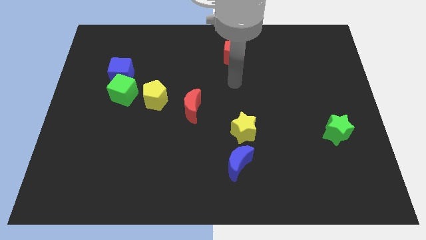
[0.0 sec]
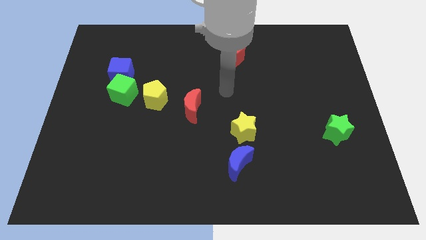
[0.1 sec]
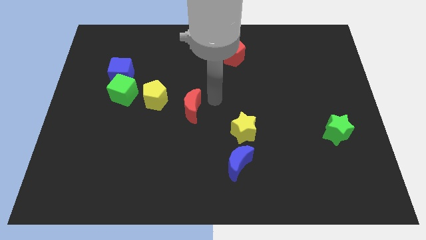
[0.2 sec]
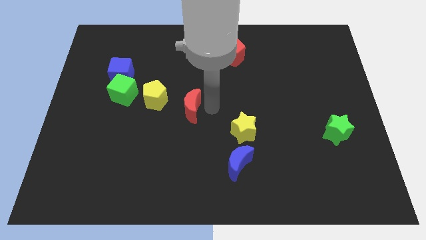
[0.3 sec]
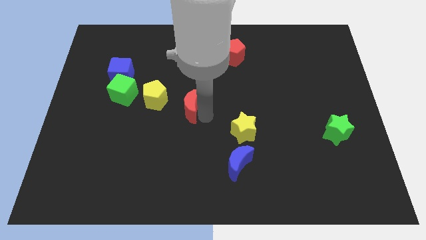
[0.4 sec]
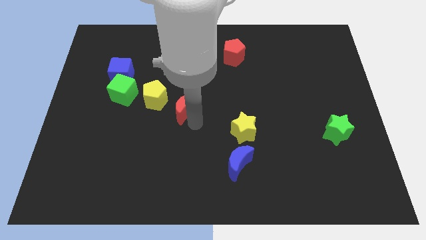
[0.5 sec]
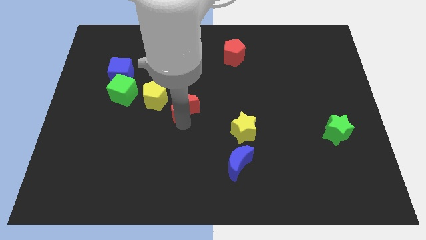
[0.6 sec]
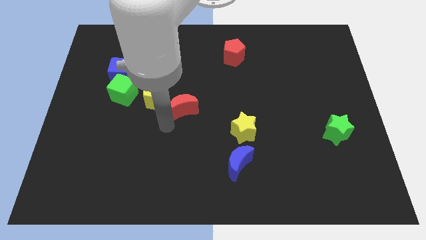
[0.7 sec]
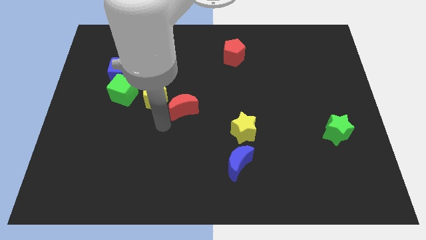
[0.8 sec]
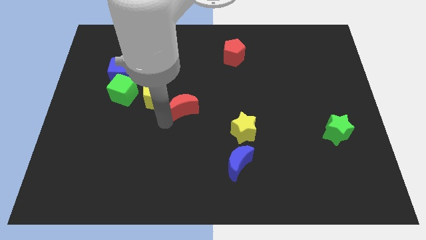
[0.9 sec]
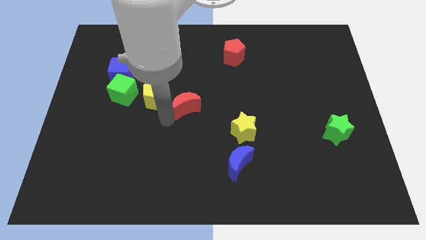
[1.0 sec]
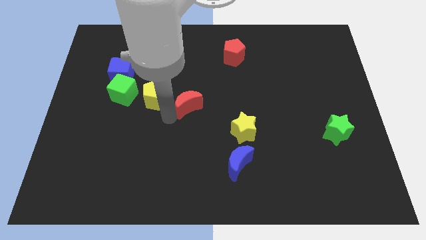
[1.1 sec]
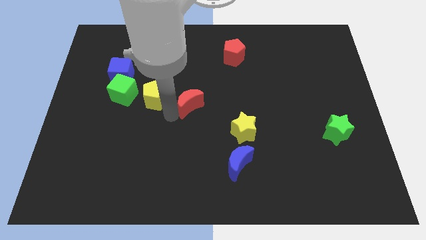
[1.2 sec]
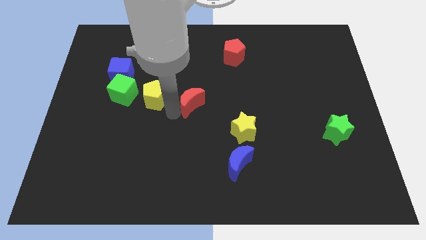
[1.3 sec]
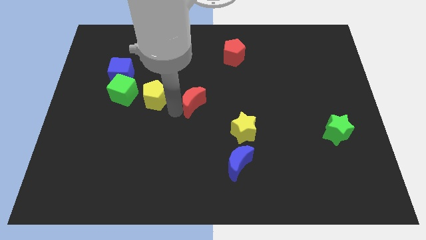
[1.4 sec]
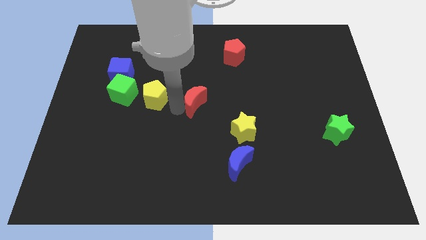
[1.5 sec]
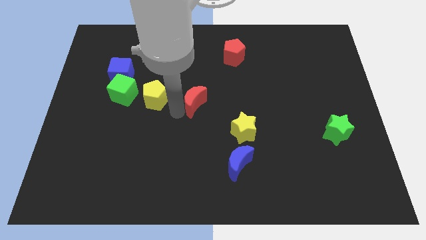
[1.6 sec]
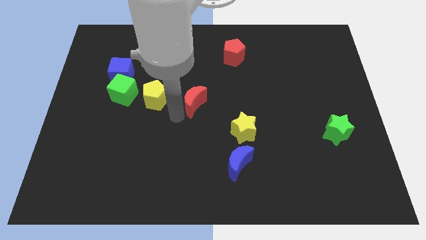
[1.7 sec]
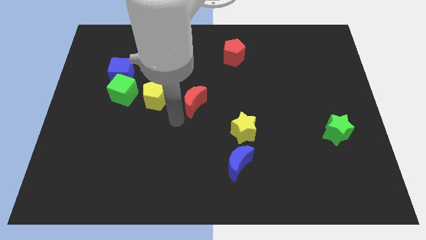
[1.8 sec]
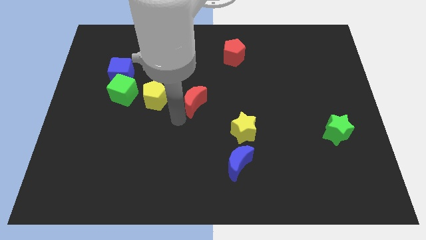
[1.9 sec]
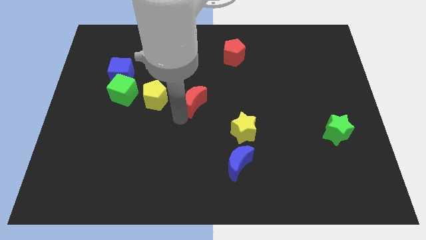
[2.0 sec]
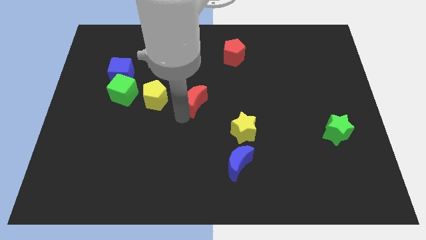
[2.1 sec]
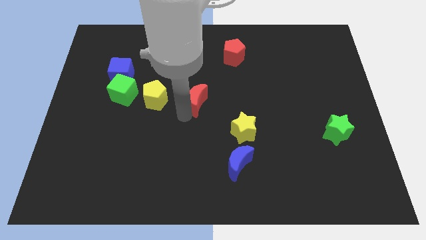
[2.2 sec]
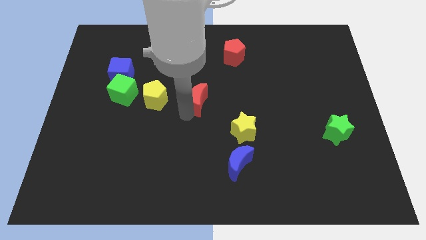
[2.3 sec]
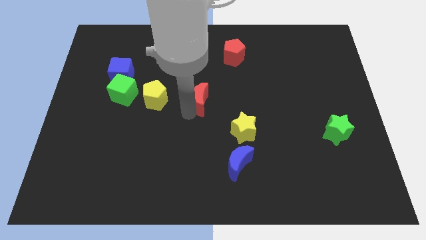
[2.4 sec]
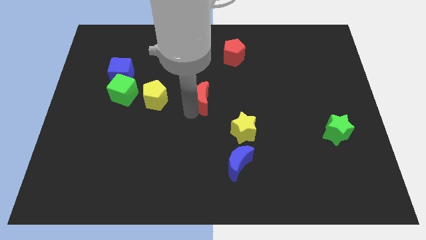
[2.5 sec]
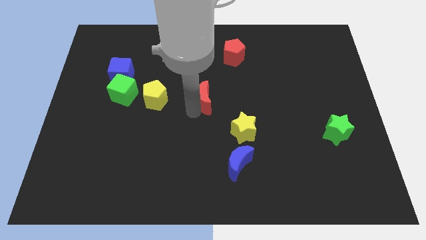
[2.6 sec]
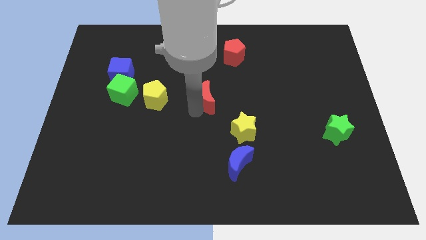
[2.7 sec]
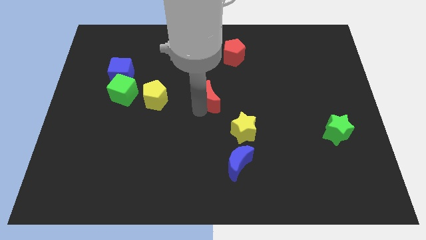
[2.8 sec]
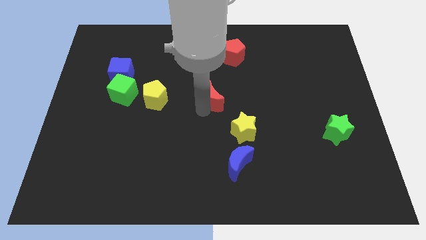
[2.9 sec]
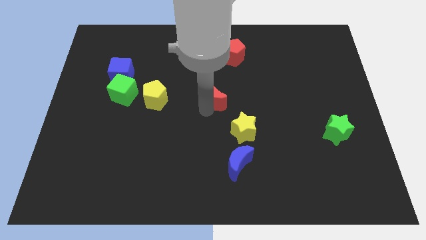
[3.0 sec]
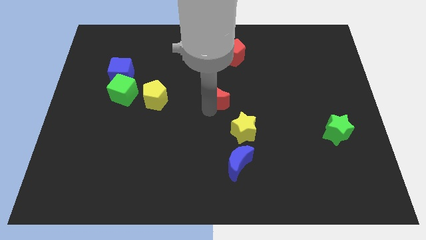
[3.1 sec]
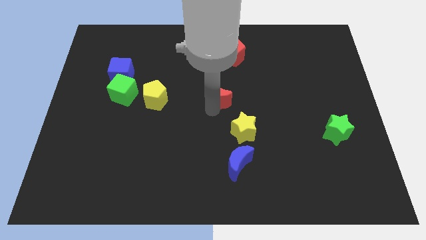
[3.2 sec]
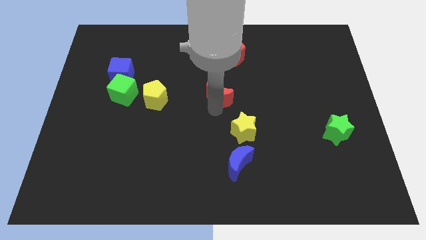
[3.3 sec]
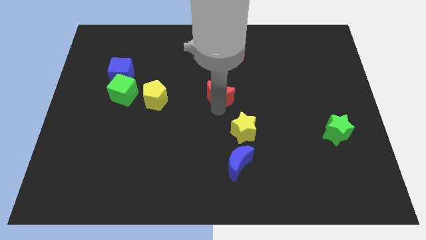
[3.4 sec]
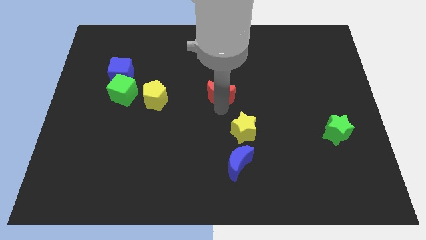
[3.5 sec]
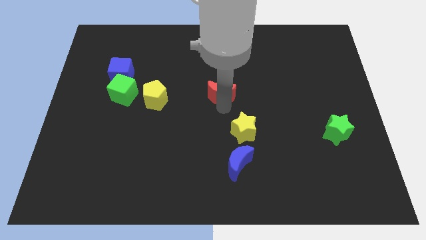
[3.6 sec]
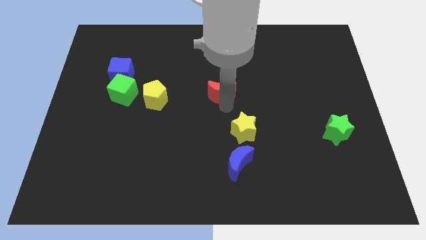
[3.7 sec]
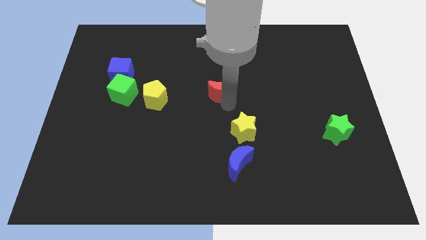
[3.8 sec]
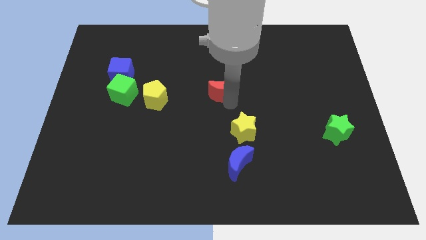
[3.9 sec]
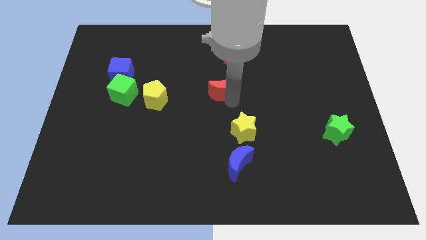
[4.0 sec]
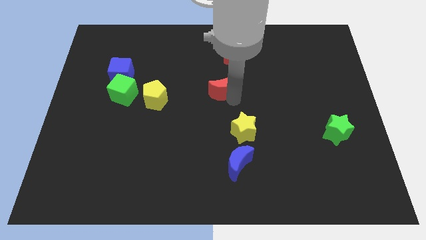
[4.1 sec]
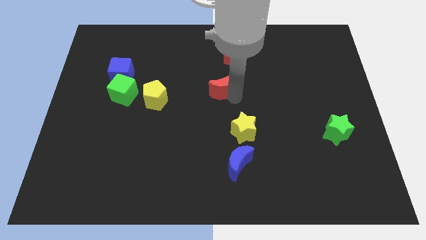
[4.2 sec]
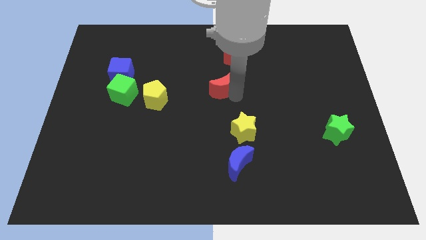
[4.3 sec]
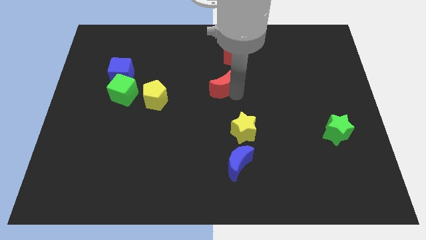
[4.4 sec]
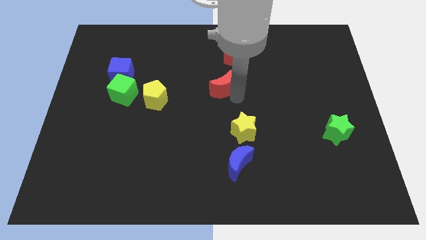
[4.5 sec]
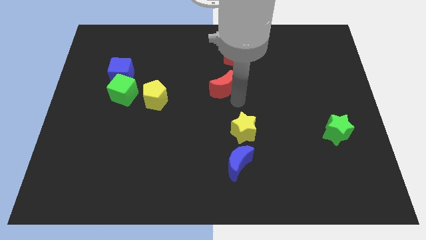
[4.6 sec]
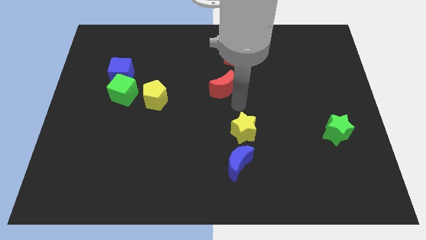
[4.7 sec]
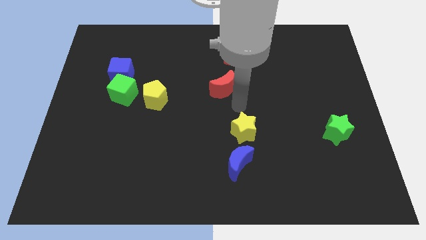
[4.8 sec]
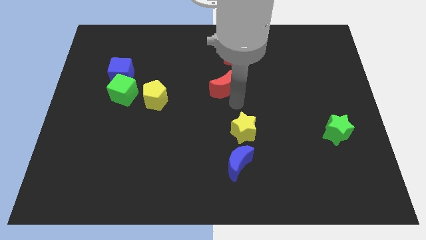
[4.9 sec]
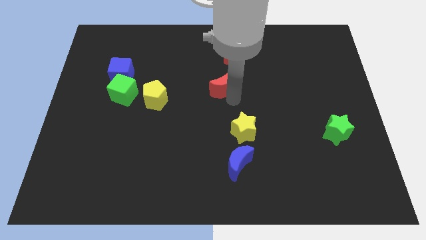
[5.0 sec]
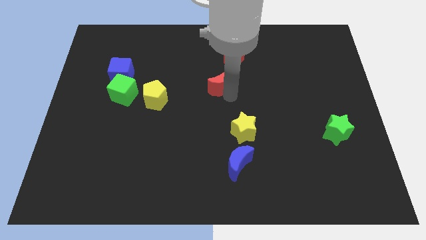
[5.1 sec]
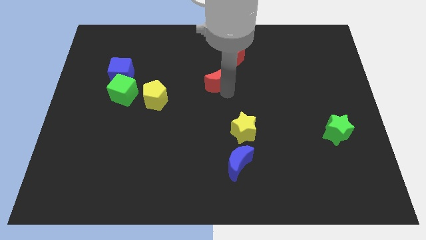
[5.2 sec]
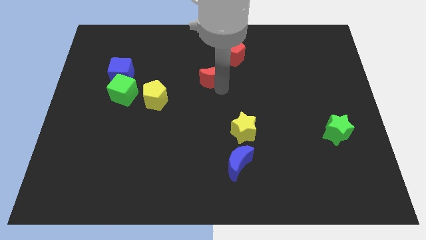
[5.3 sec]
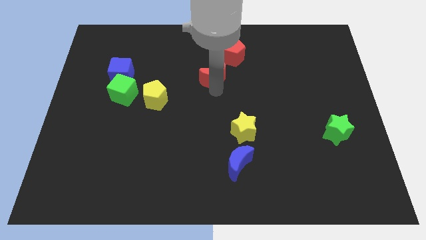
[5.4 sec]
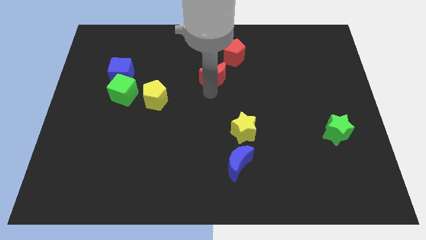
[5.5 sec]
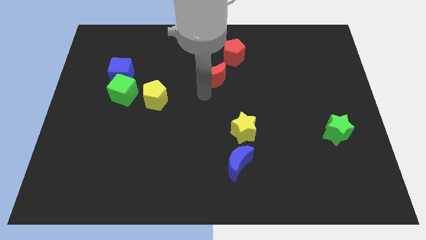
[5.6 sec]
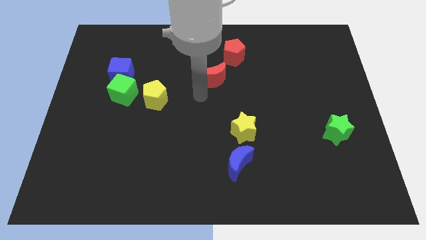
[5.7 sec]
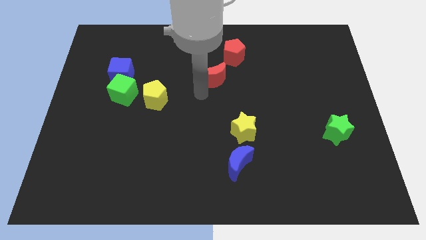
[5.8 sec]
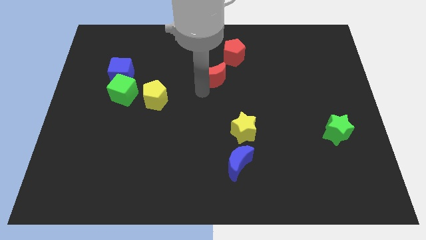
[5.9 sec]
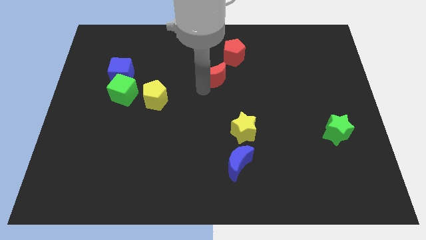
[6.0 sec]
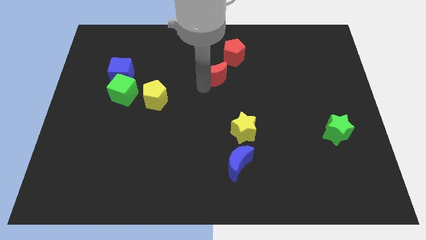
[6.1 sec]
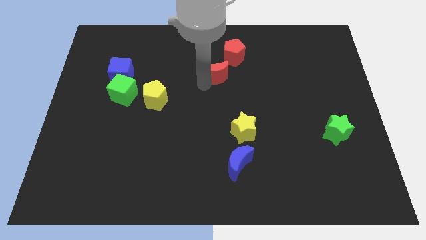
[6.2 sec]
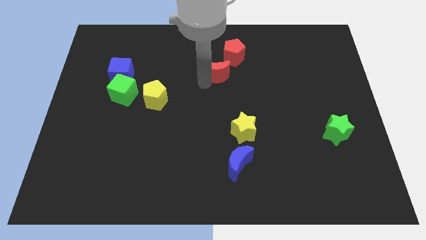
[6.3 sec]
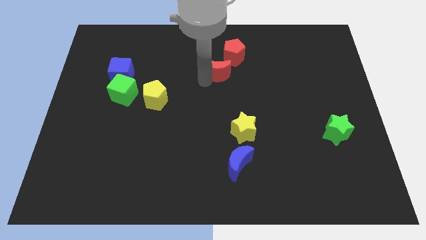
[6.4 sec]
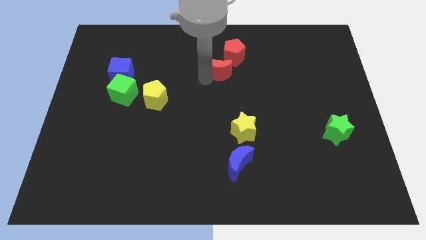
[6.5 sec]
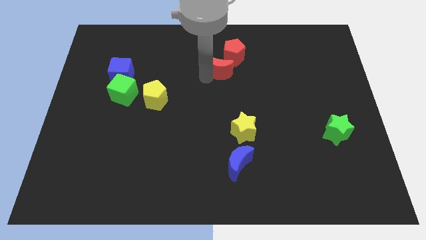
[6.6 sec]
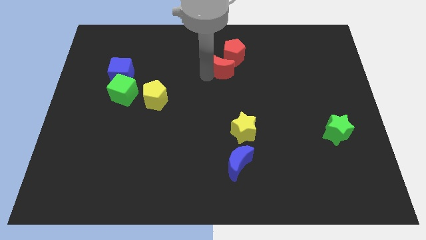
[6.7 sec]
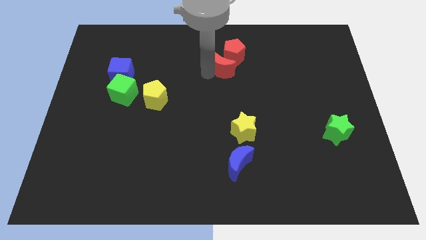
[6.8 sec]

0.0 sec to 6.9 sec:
move the red moon towards the red pentagon
